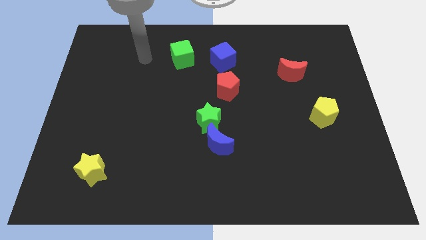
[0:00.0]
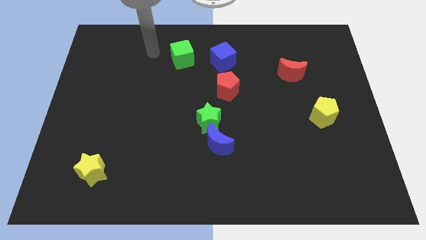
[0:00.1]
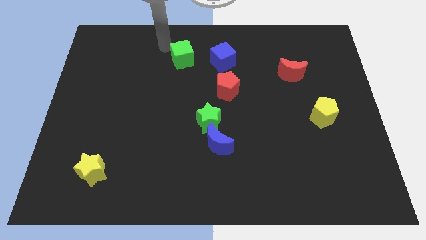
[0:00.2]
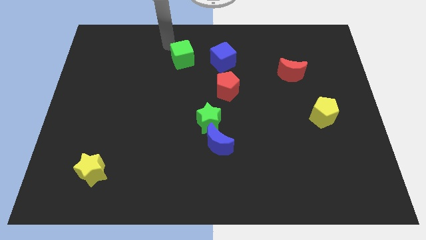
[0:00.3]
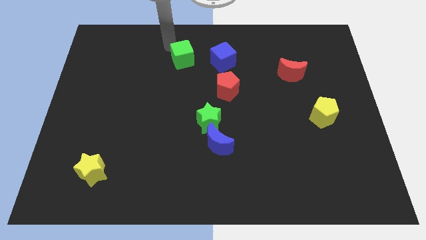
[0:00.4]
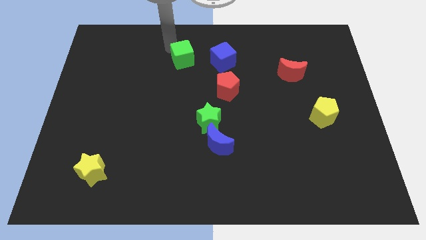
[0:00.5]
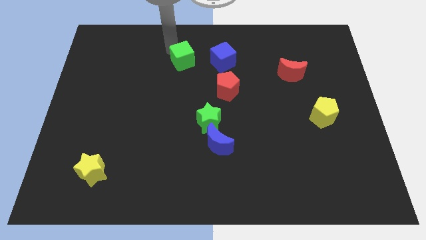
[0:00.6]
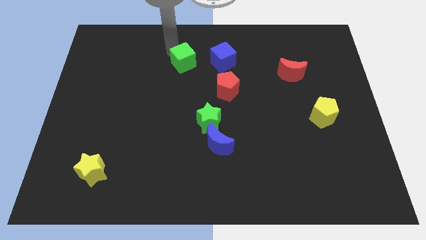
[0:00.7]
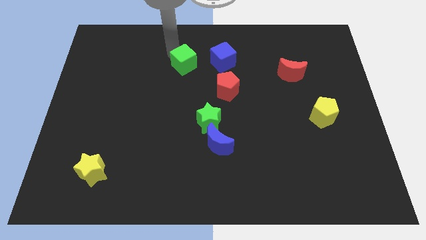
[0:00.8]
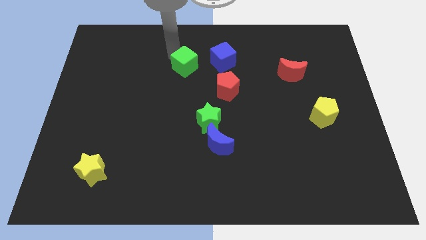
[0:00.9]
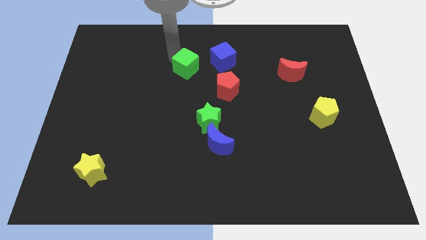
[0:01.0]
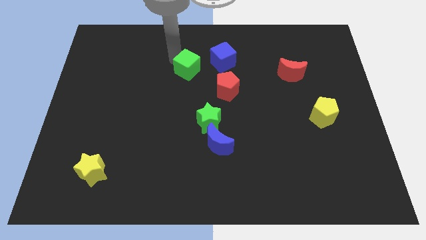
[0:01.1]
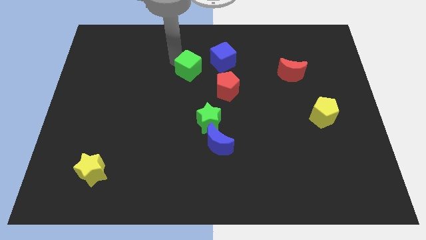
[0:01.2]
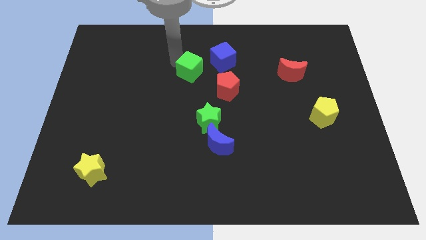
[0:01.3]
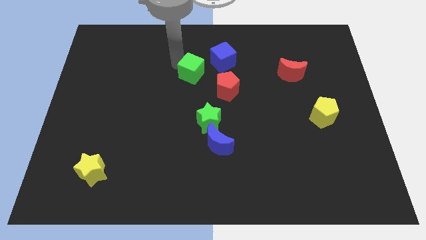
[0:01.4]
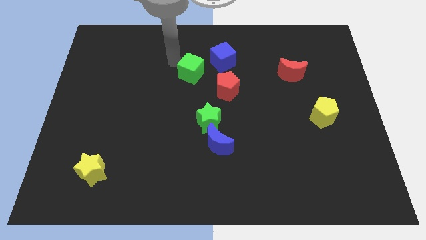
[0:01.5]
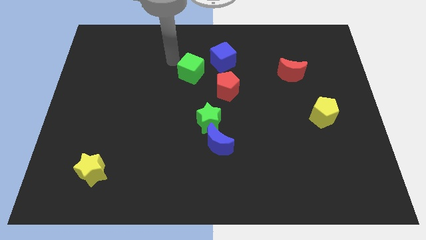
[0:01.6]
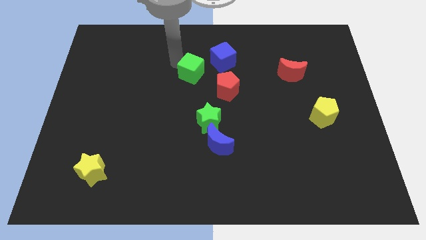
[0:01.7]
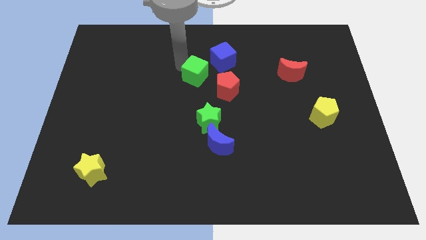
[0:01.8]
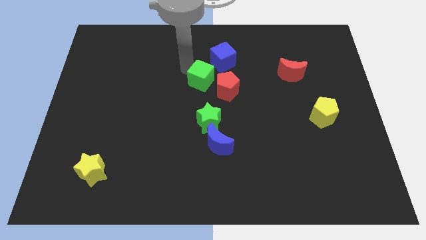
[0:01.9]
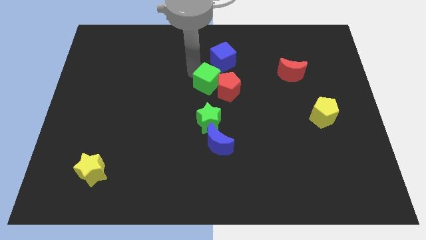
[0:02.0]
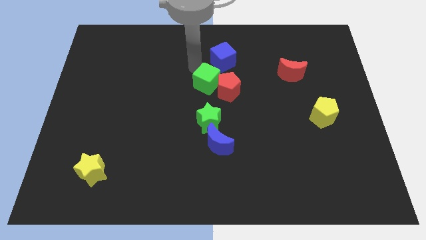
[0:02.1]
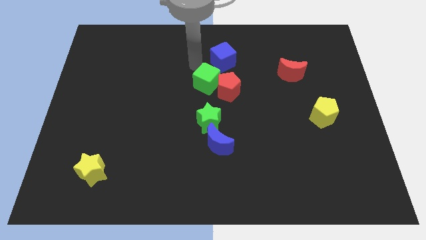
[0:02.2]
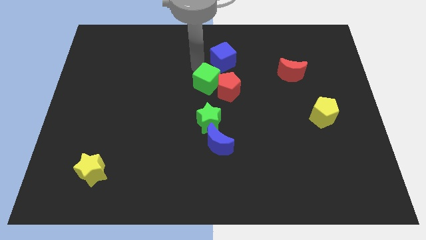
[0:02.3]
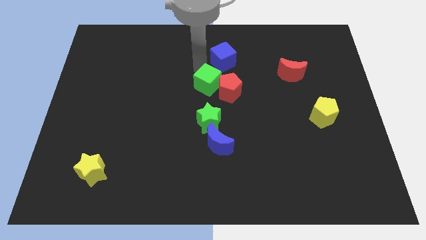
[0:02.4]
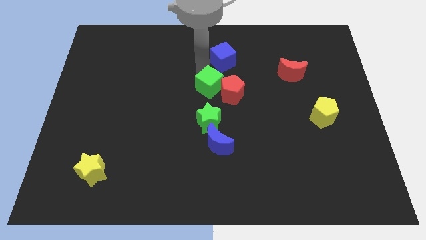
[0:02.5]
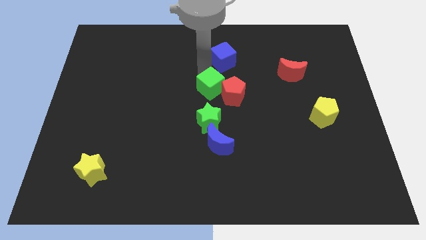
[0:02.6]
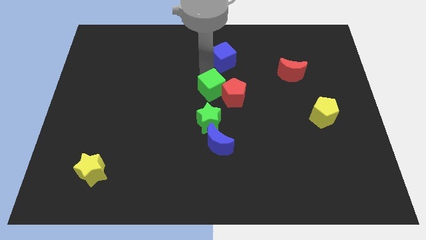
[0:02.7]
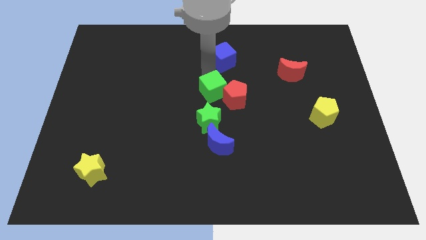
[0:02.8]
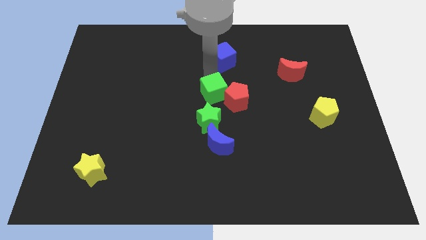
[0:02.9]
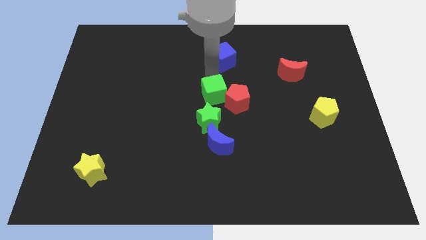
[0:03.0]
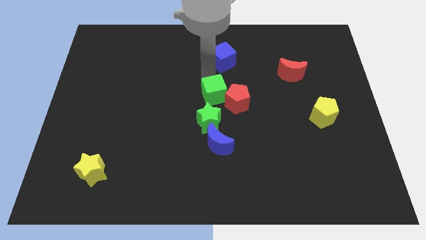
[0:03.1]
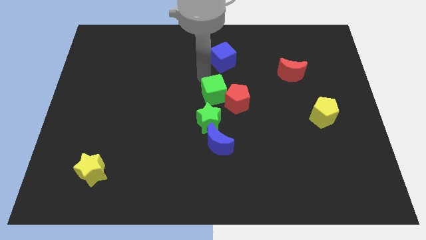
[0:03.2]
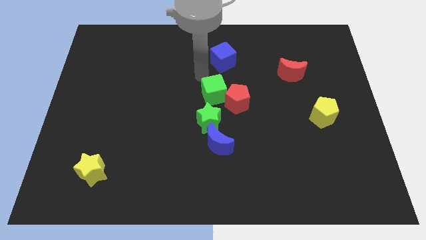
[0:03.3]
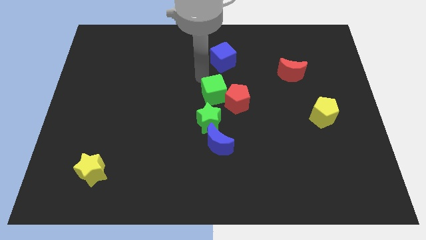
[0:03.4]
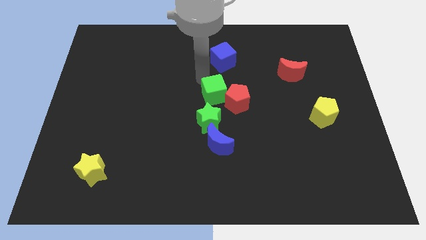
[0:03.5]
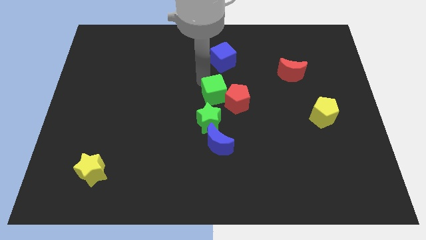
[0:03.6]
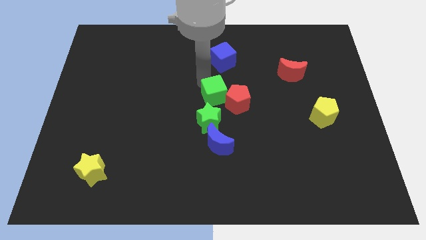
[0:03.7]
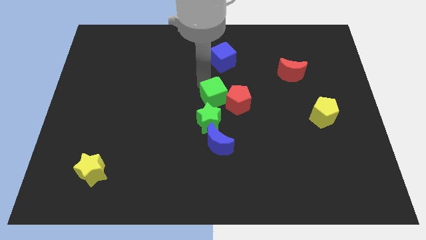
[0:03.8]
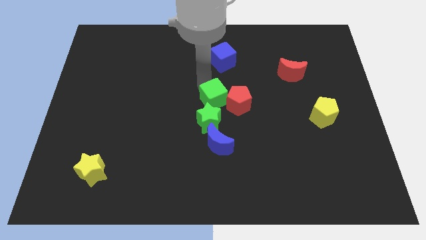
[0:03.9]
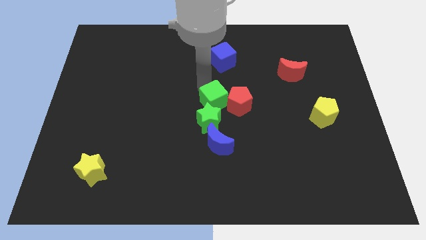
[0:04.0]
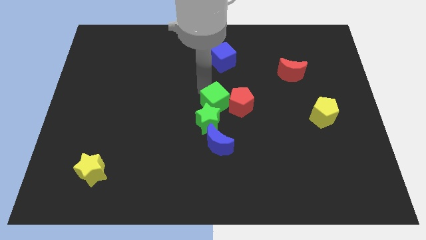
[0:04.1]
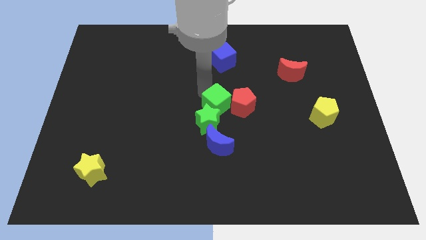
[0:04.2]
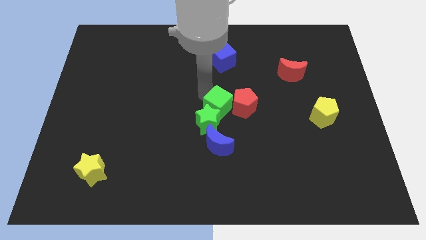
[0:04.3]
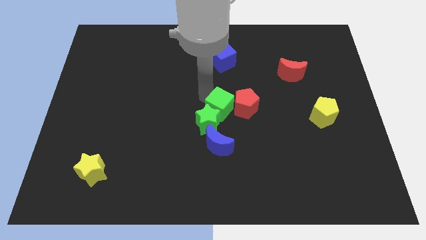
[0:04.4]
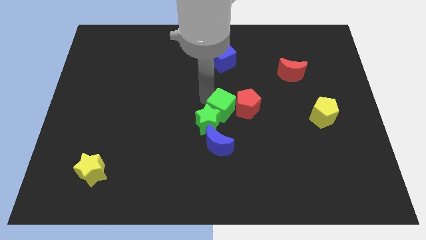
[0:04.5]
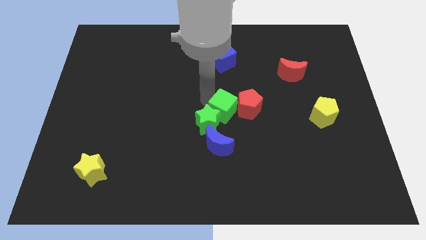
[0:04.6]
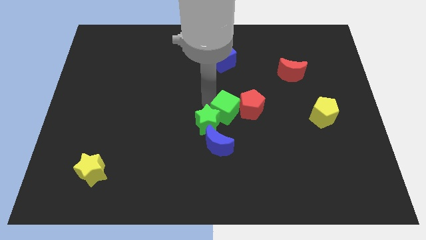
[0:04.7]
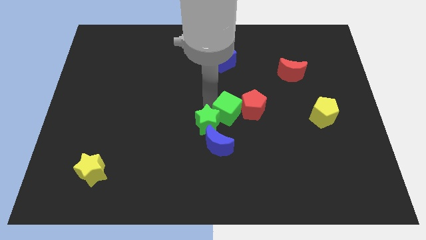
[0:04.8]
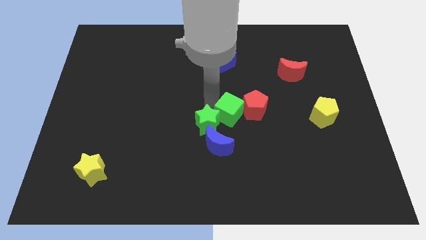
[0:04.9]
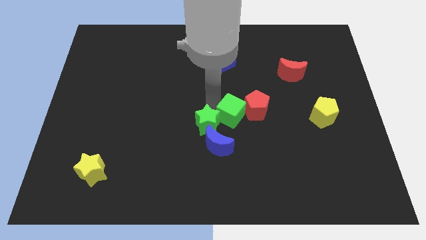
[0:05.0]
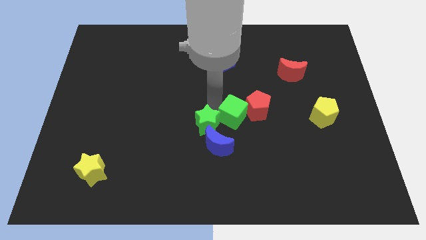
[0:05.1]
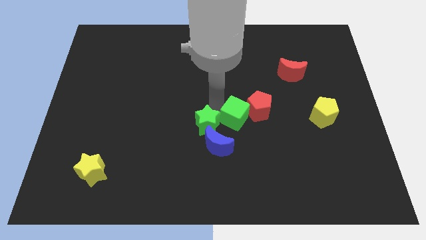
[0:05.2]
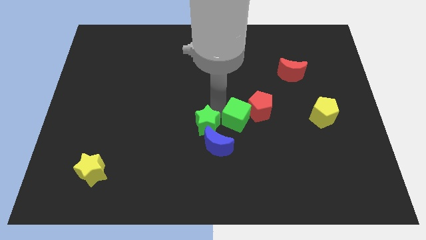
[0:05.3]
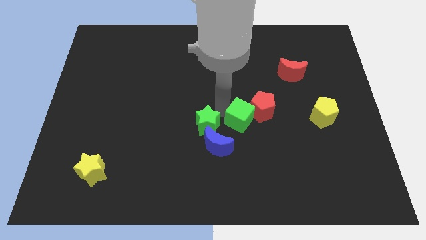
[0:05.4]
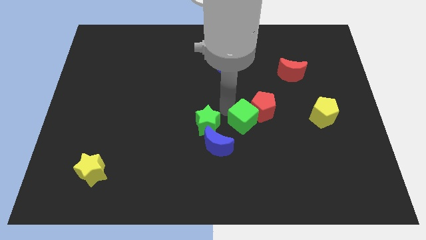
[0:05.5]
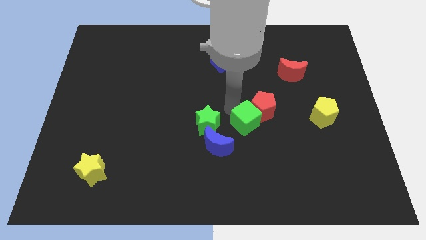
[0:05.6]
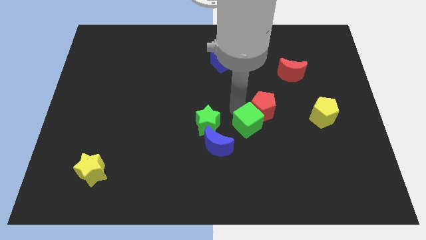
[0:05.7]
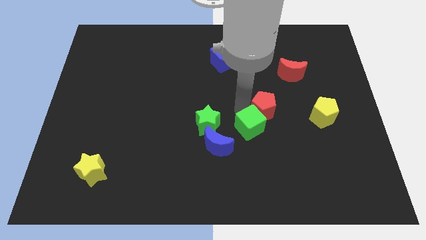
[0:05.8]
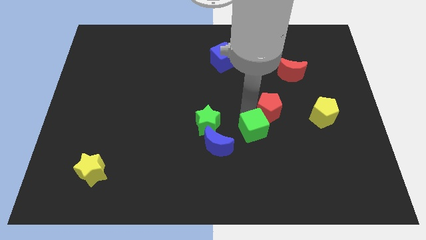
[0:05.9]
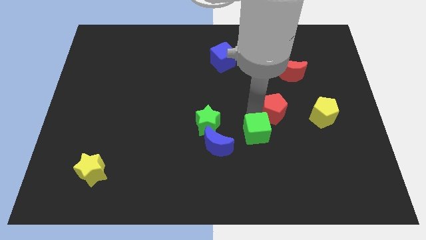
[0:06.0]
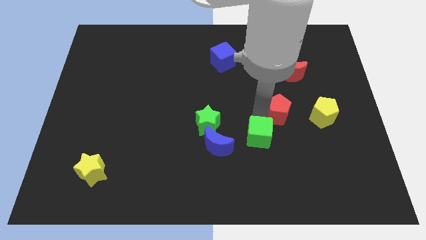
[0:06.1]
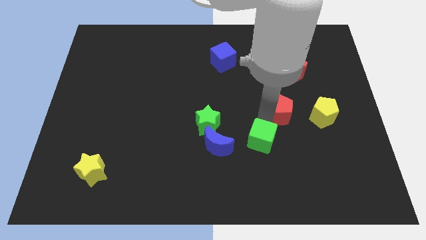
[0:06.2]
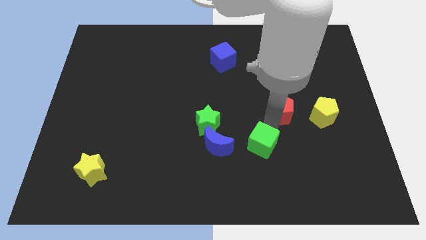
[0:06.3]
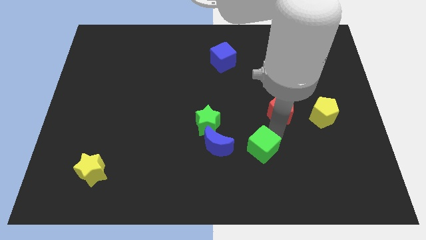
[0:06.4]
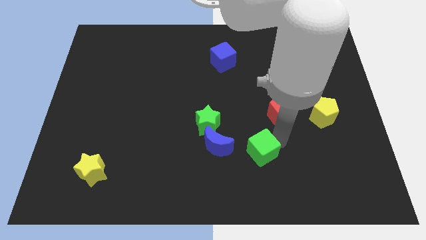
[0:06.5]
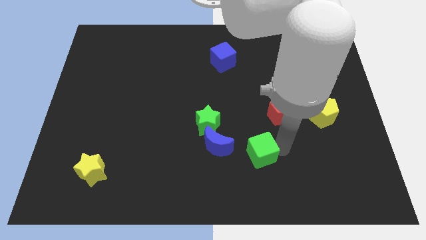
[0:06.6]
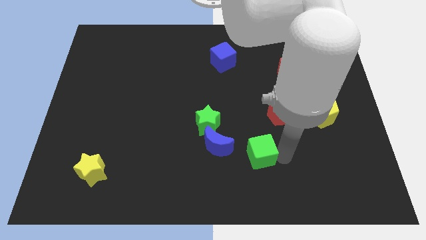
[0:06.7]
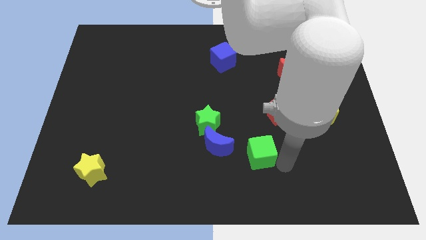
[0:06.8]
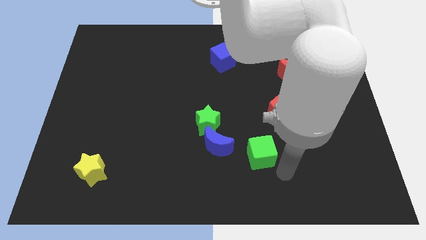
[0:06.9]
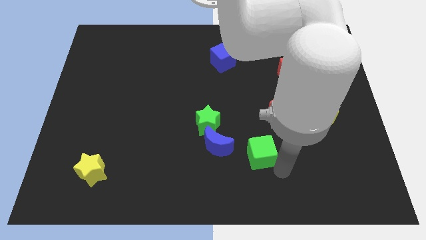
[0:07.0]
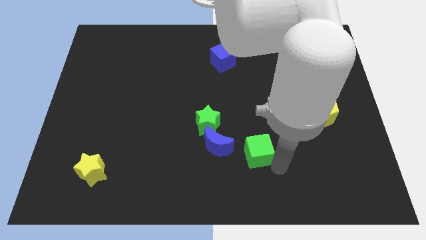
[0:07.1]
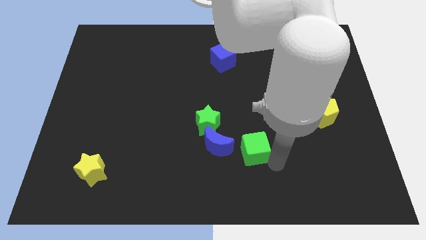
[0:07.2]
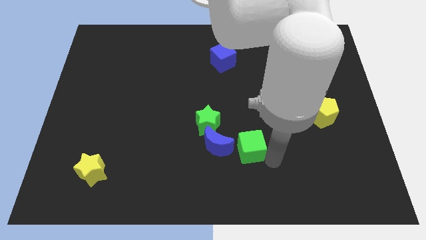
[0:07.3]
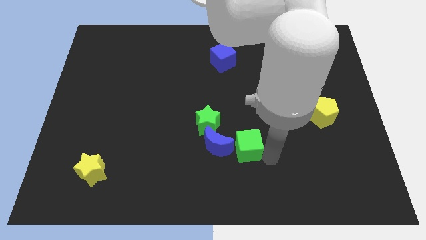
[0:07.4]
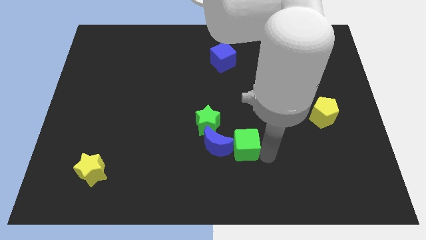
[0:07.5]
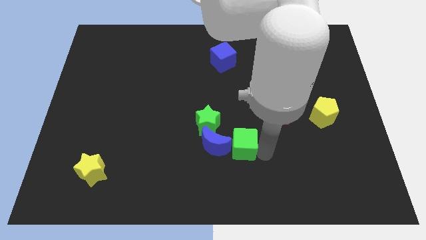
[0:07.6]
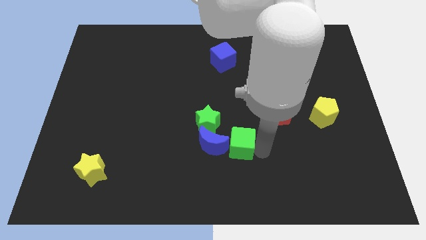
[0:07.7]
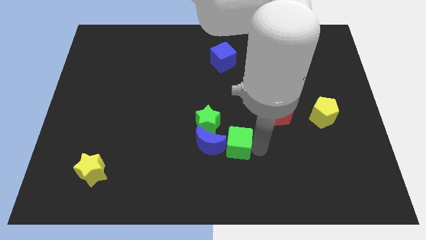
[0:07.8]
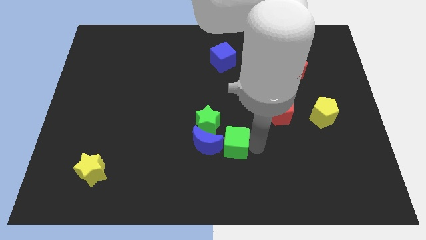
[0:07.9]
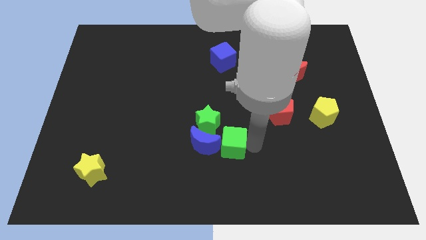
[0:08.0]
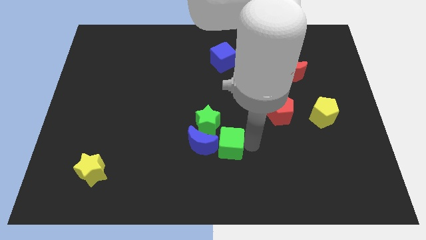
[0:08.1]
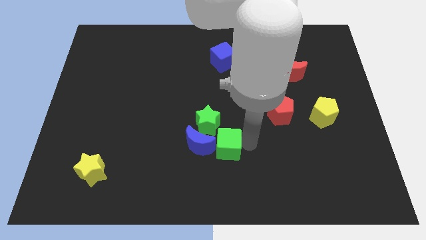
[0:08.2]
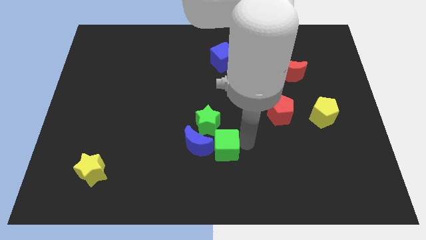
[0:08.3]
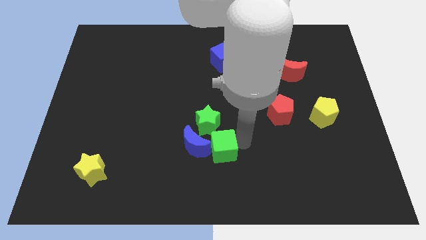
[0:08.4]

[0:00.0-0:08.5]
push the green cube to the blue moon

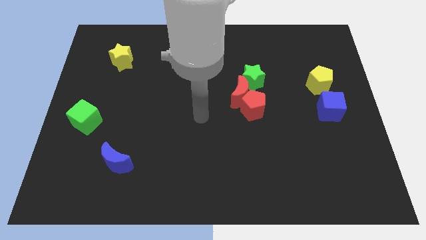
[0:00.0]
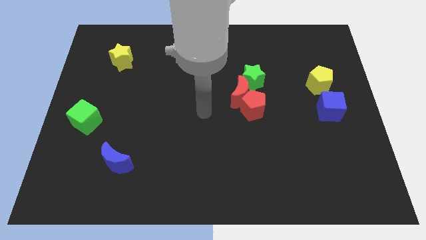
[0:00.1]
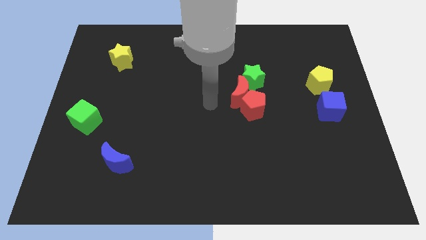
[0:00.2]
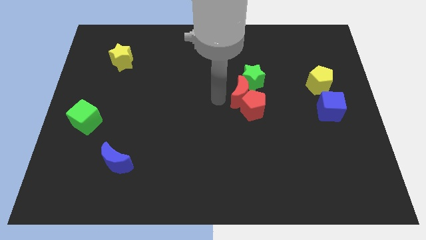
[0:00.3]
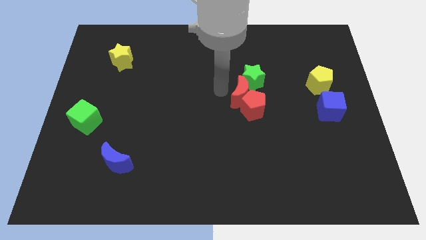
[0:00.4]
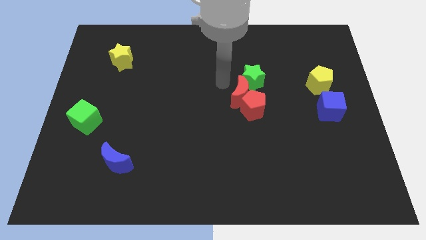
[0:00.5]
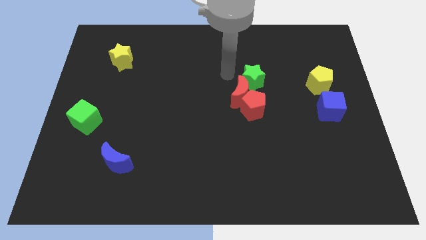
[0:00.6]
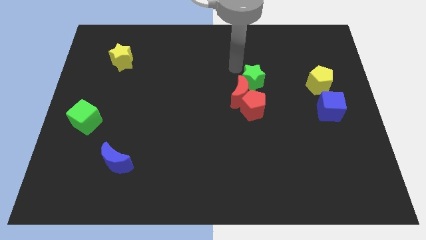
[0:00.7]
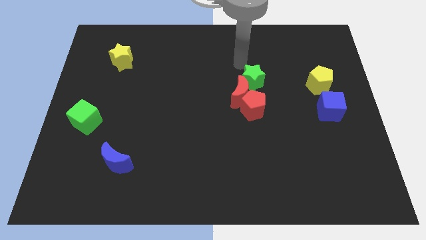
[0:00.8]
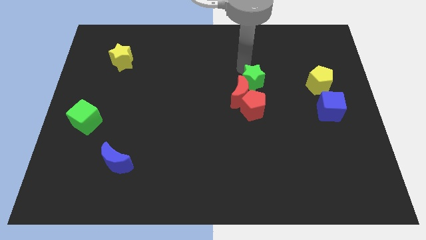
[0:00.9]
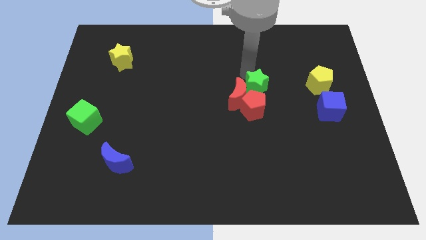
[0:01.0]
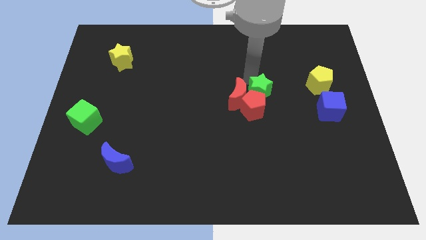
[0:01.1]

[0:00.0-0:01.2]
move the green star close to the red pentagon
